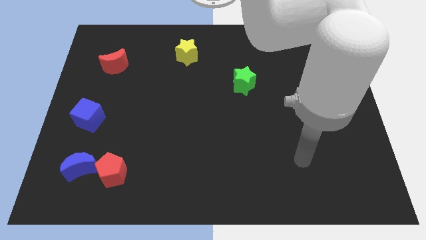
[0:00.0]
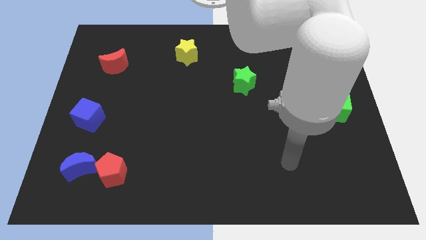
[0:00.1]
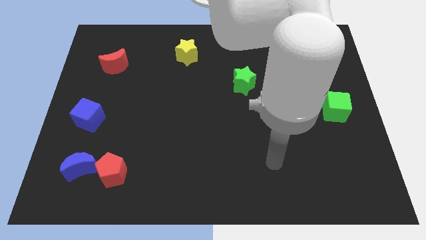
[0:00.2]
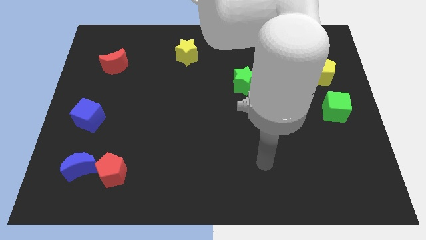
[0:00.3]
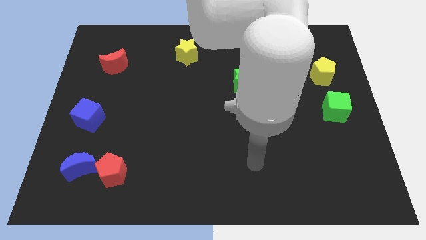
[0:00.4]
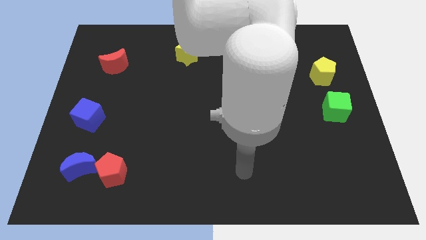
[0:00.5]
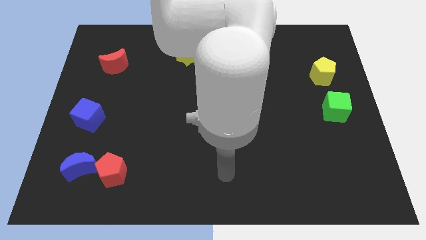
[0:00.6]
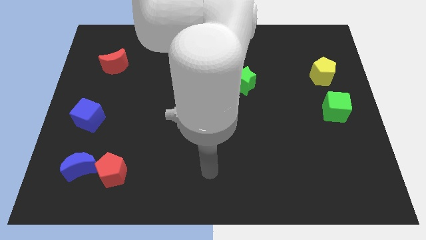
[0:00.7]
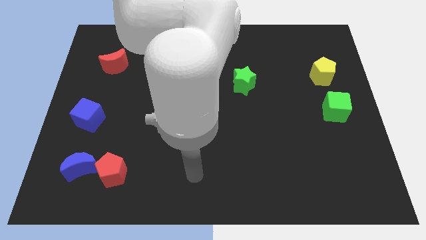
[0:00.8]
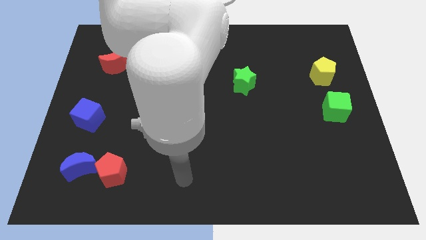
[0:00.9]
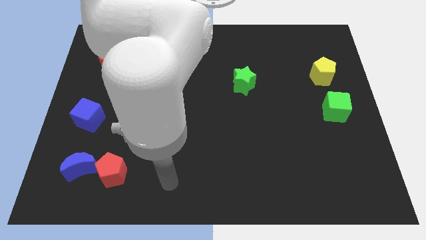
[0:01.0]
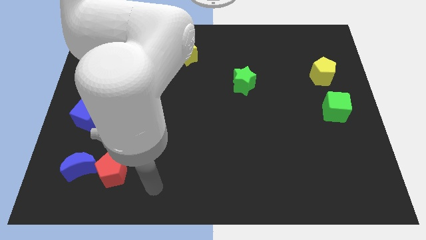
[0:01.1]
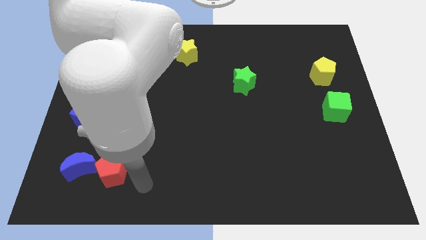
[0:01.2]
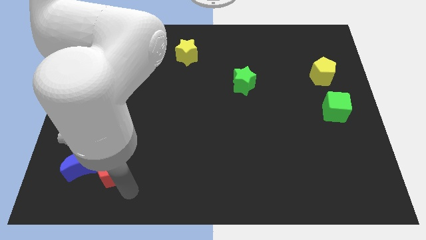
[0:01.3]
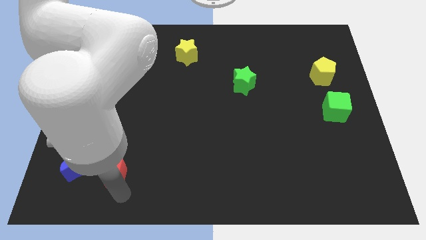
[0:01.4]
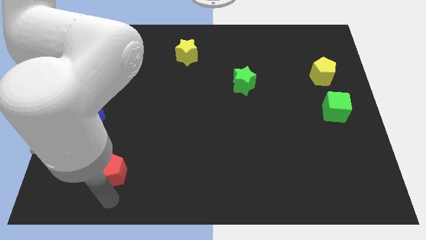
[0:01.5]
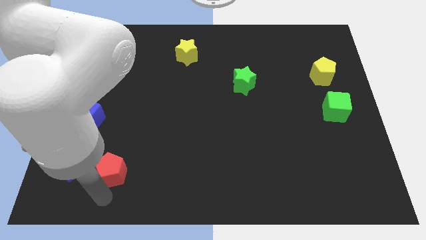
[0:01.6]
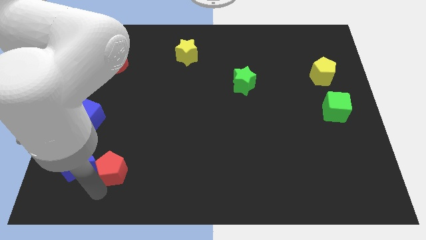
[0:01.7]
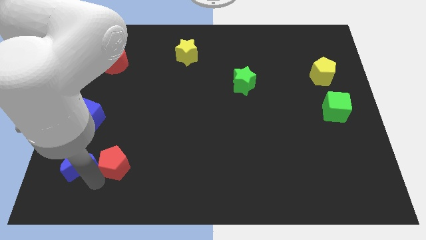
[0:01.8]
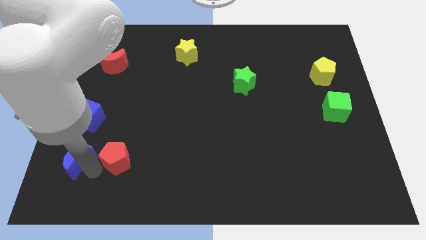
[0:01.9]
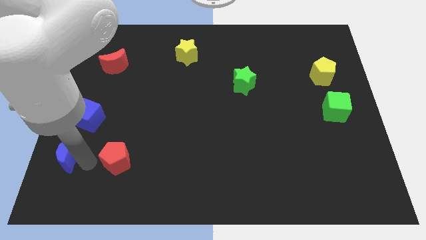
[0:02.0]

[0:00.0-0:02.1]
pull the red pentagon apart from the blue moon

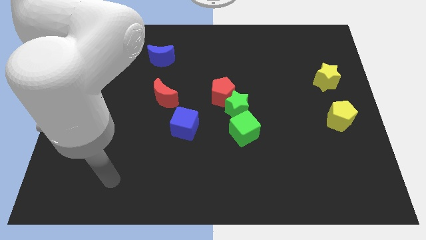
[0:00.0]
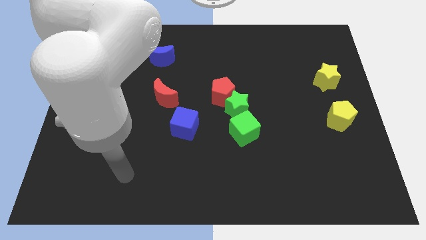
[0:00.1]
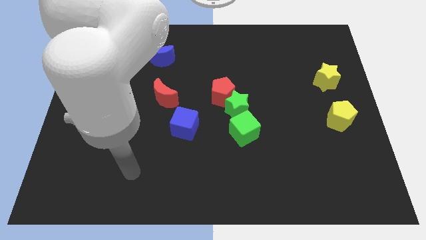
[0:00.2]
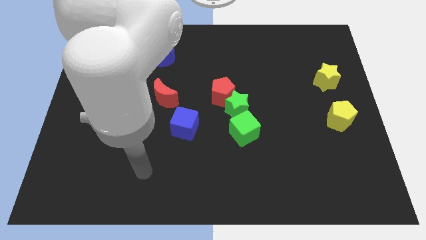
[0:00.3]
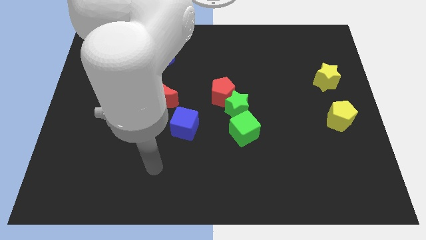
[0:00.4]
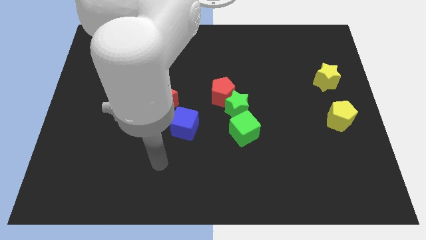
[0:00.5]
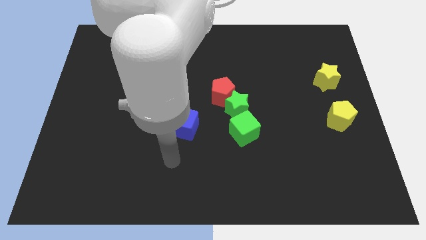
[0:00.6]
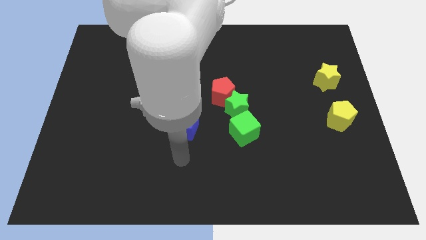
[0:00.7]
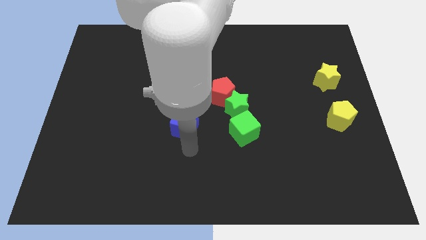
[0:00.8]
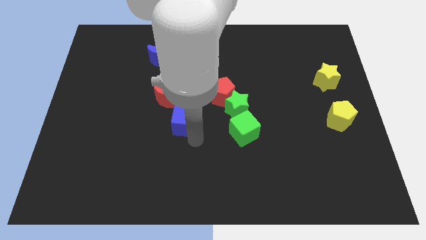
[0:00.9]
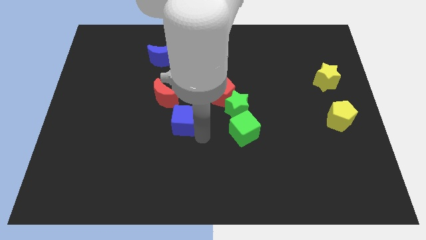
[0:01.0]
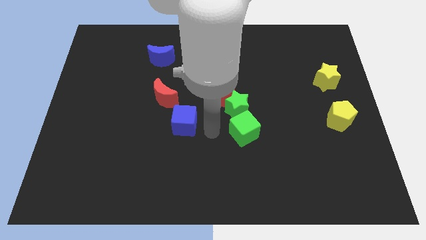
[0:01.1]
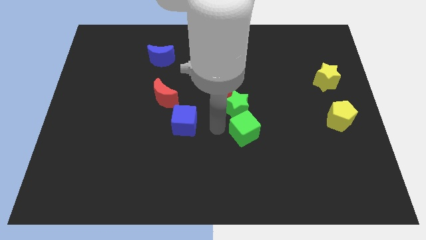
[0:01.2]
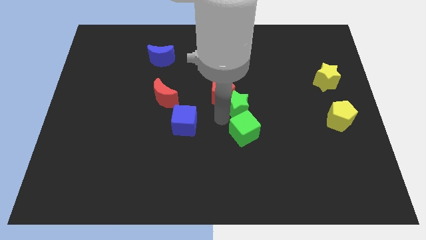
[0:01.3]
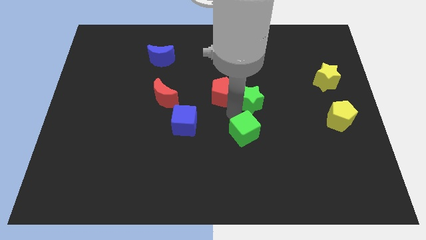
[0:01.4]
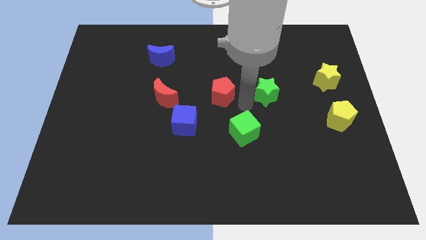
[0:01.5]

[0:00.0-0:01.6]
pull the red pentagon apart from the green star

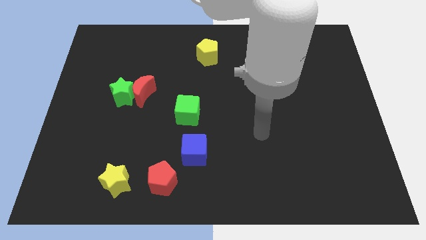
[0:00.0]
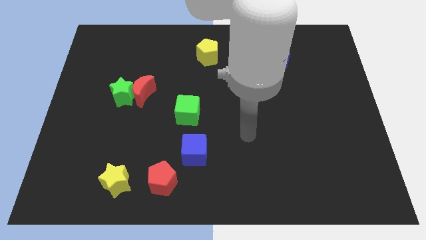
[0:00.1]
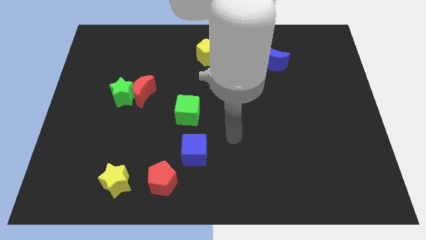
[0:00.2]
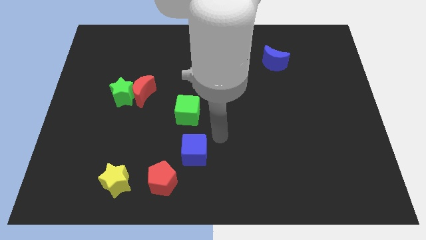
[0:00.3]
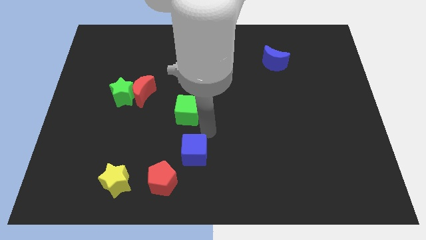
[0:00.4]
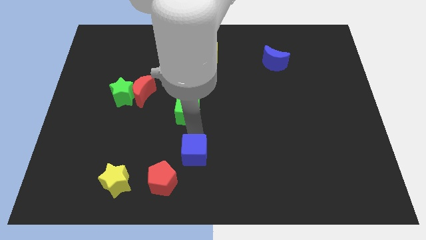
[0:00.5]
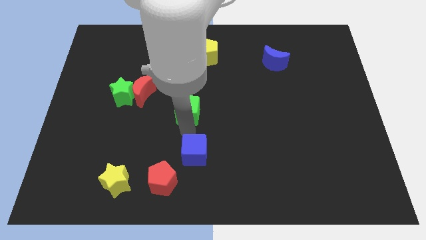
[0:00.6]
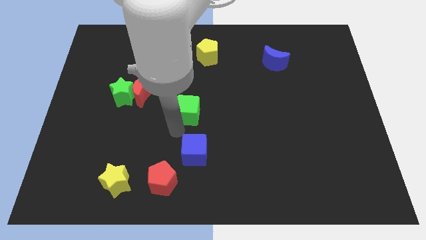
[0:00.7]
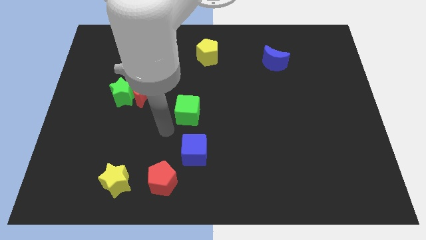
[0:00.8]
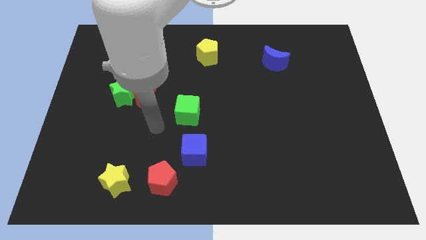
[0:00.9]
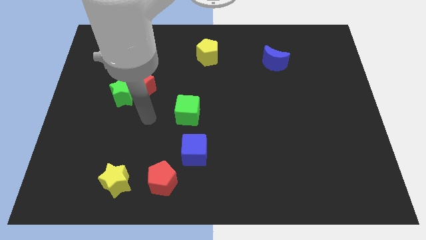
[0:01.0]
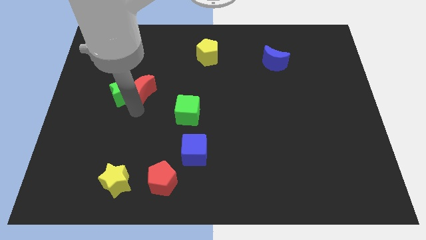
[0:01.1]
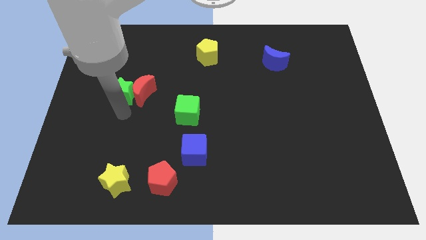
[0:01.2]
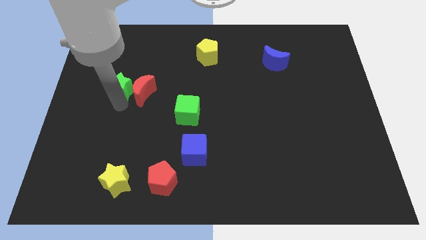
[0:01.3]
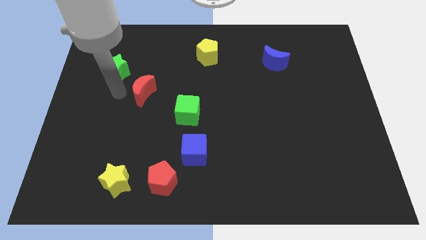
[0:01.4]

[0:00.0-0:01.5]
move the red moon away from the green star

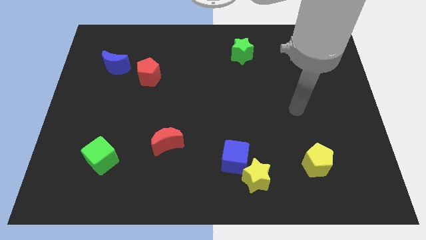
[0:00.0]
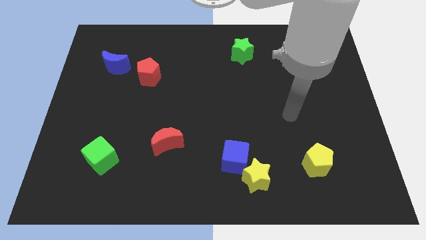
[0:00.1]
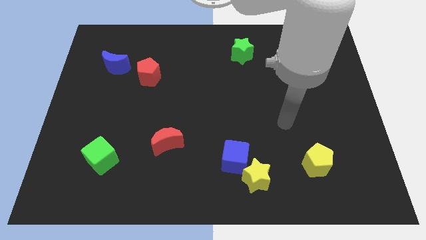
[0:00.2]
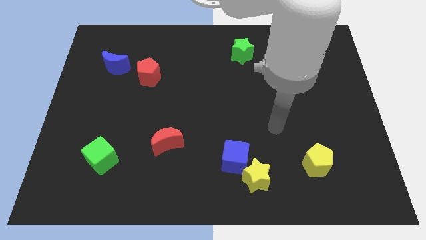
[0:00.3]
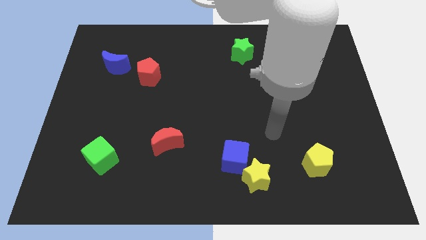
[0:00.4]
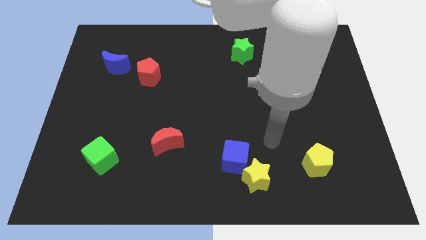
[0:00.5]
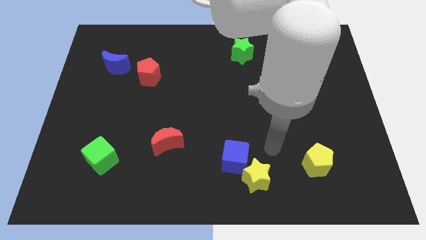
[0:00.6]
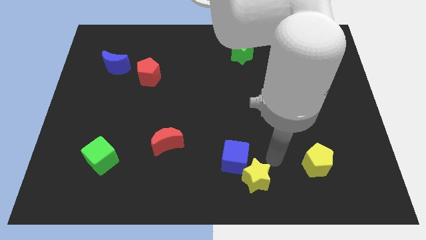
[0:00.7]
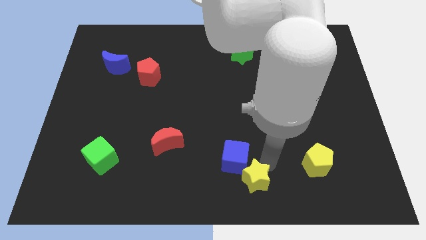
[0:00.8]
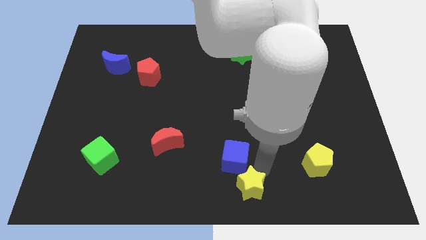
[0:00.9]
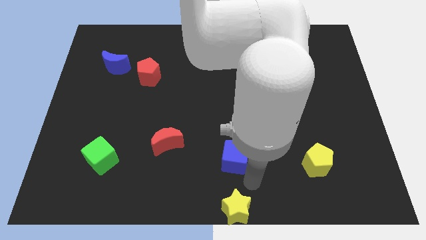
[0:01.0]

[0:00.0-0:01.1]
pull the blue cube apart from the yellow star

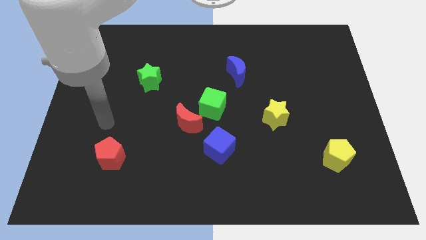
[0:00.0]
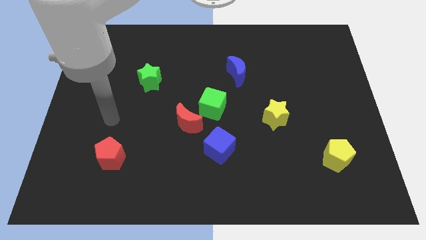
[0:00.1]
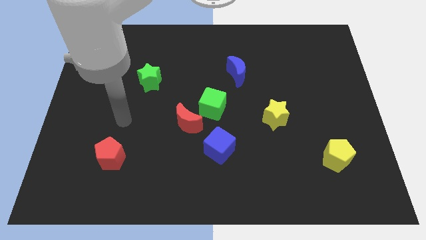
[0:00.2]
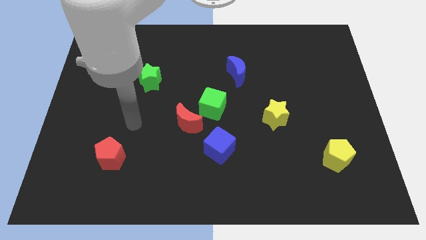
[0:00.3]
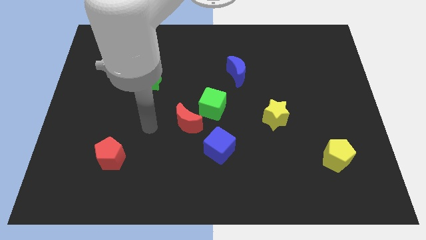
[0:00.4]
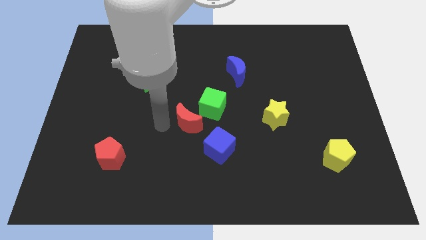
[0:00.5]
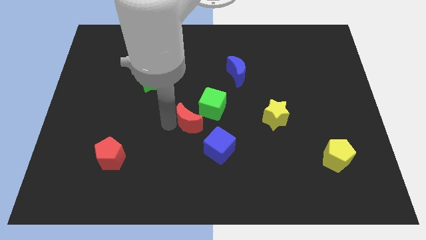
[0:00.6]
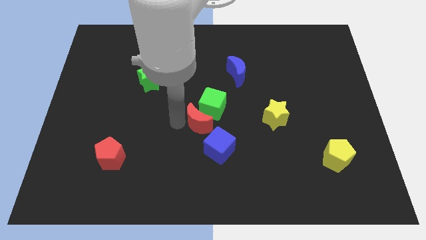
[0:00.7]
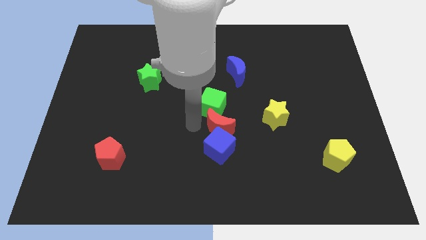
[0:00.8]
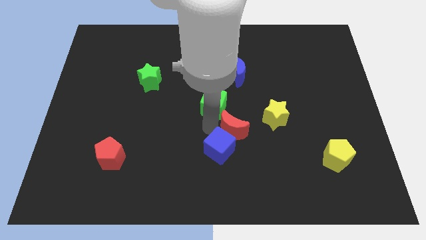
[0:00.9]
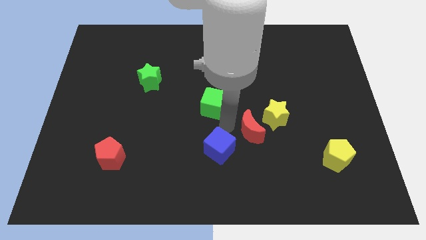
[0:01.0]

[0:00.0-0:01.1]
pull the green cube apart from the red moon

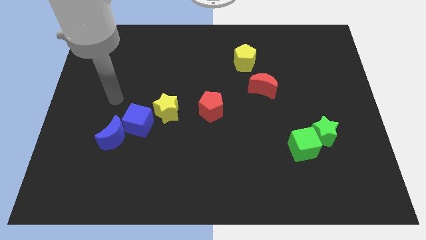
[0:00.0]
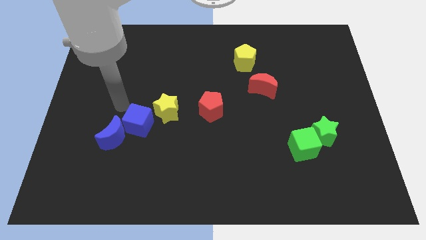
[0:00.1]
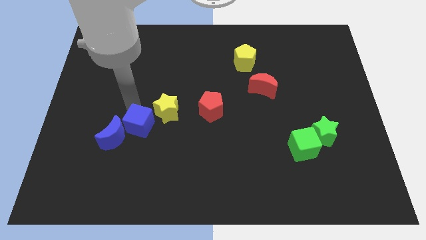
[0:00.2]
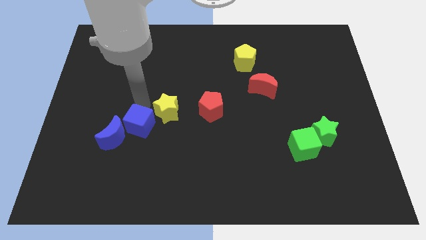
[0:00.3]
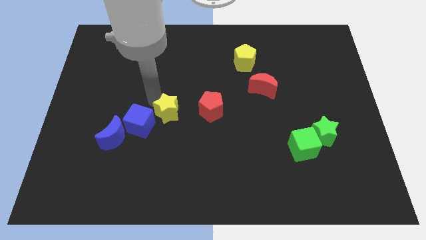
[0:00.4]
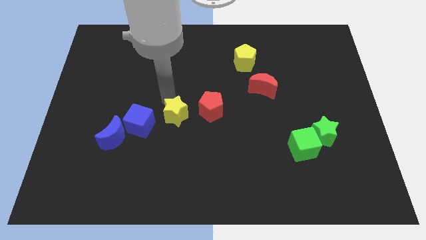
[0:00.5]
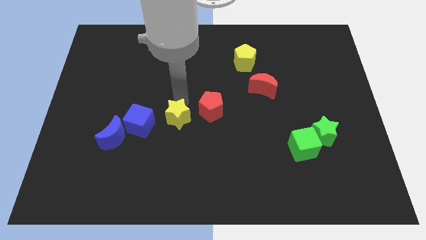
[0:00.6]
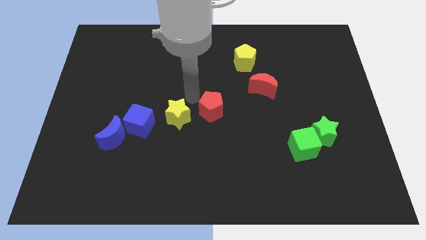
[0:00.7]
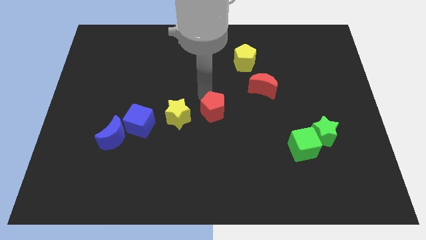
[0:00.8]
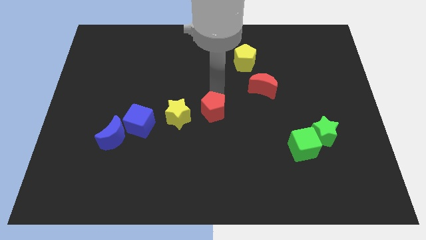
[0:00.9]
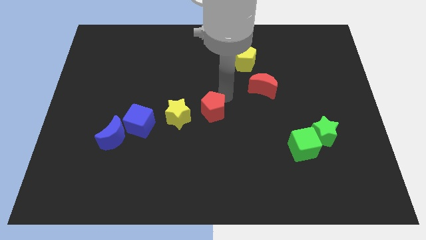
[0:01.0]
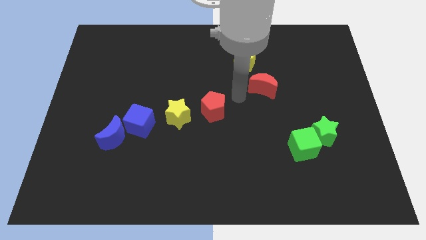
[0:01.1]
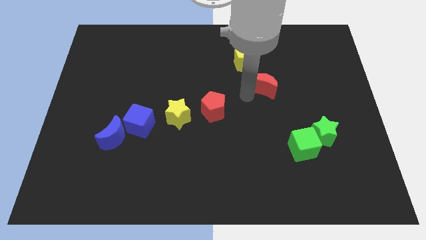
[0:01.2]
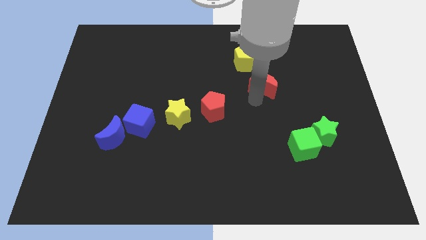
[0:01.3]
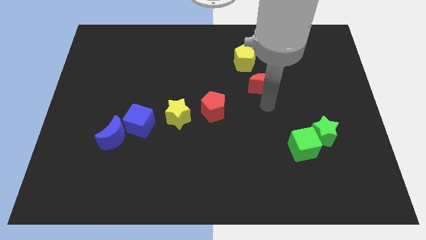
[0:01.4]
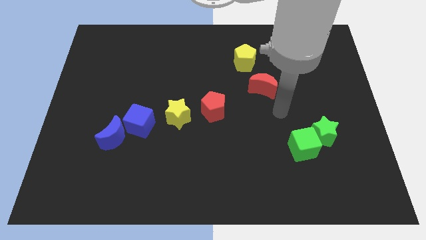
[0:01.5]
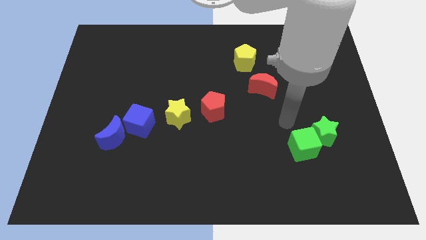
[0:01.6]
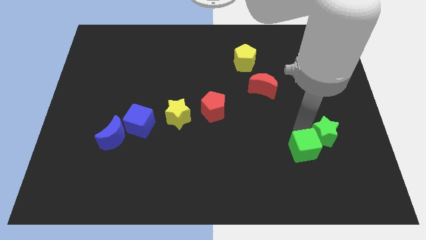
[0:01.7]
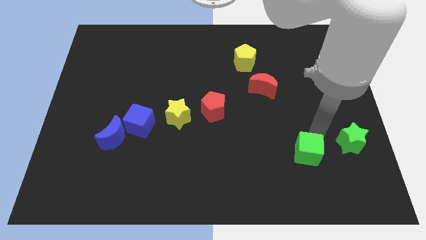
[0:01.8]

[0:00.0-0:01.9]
separate the green cube from the green star

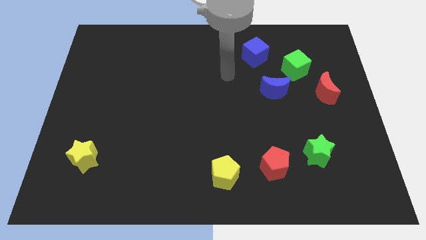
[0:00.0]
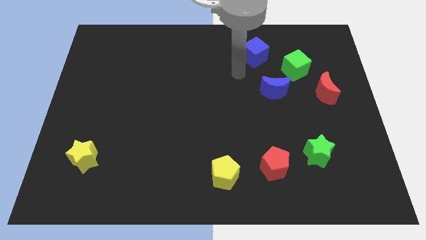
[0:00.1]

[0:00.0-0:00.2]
move the blue moon away from the green cube
